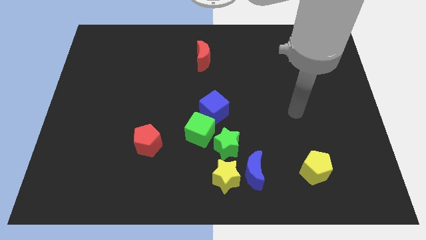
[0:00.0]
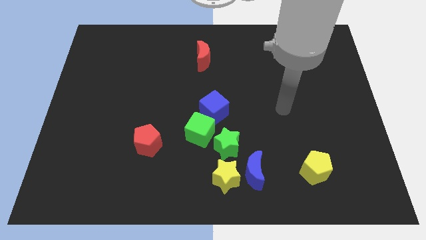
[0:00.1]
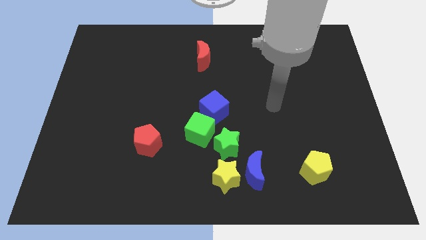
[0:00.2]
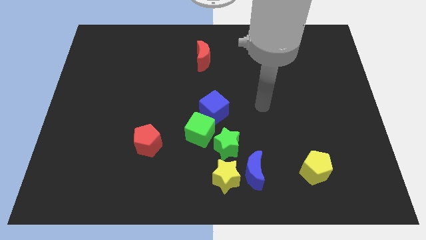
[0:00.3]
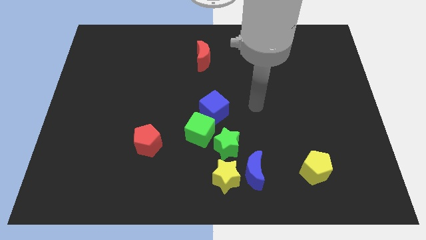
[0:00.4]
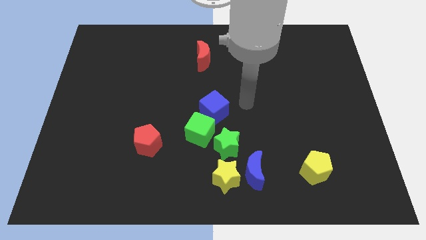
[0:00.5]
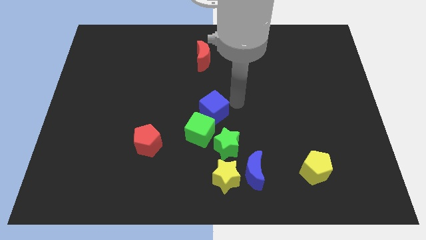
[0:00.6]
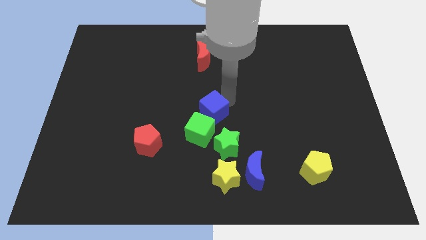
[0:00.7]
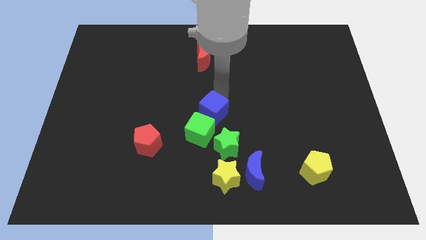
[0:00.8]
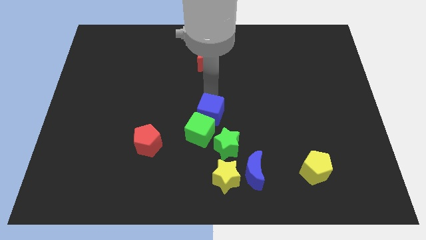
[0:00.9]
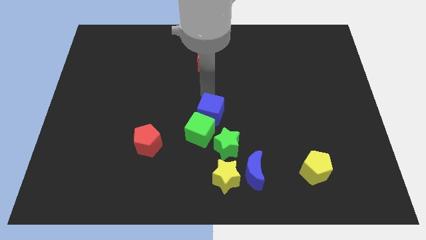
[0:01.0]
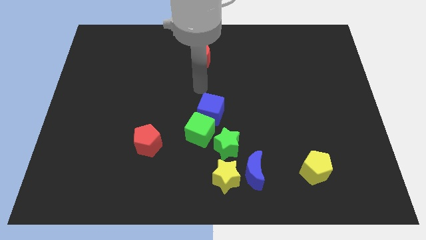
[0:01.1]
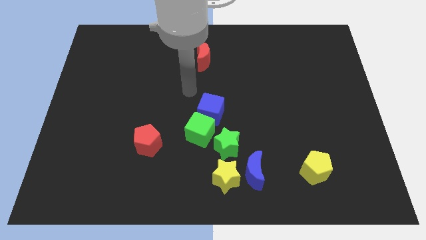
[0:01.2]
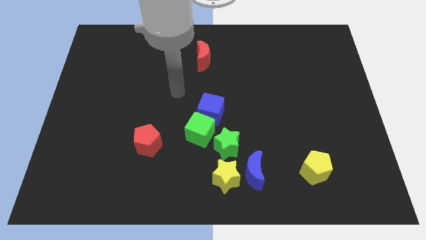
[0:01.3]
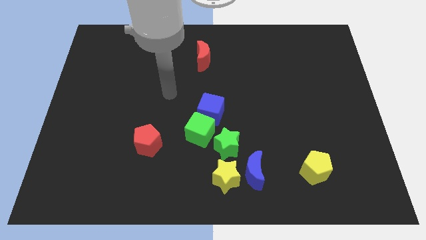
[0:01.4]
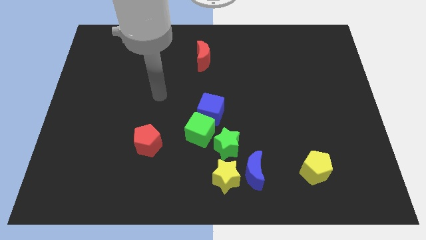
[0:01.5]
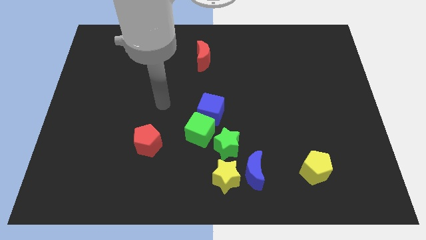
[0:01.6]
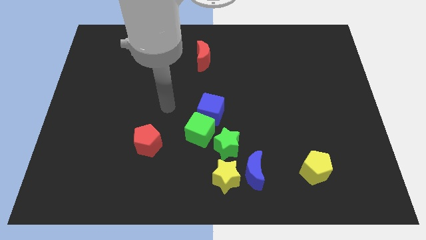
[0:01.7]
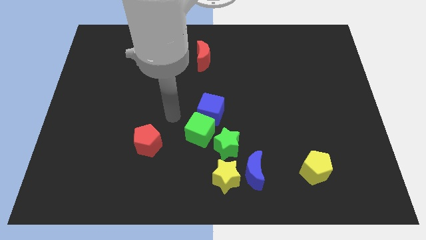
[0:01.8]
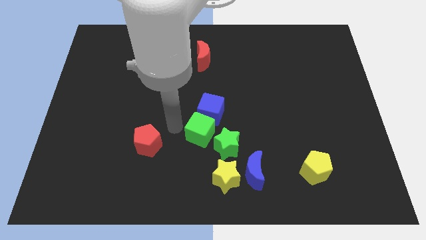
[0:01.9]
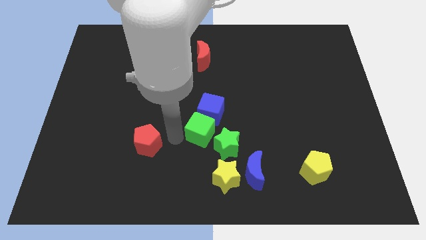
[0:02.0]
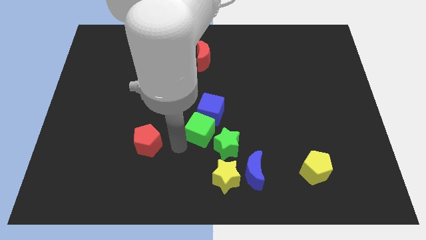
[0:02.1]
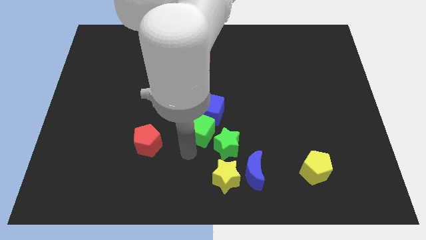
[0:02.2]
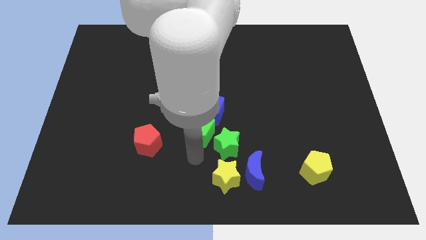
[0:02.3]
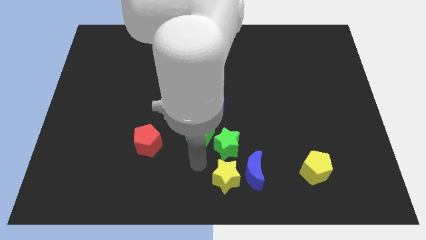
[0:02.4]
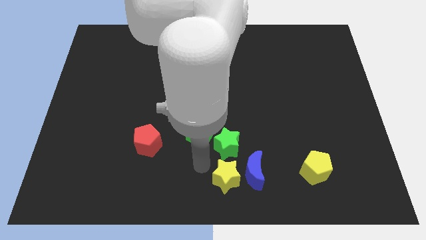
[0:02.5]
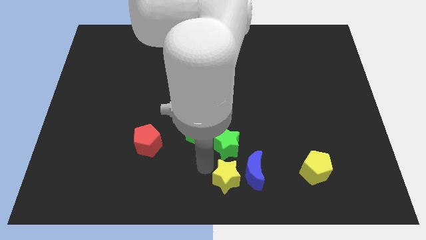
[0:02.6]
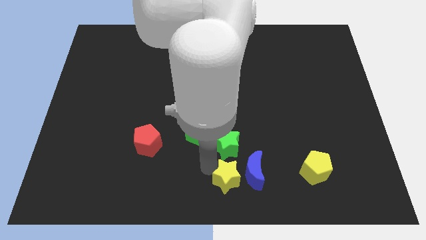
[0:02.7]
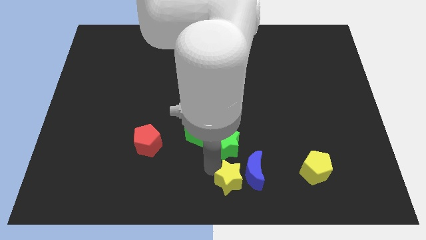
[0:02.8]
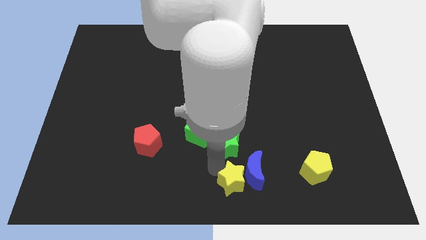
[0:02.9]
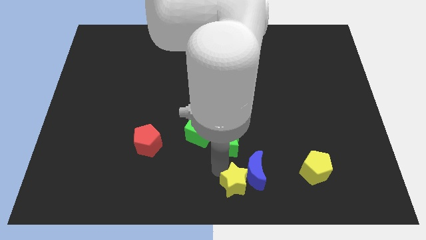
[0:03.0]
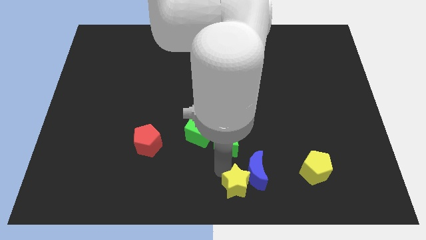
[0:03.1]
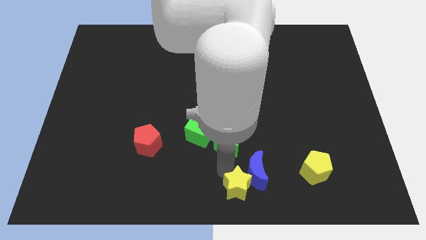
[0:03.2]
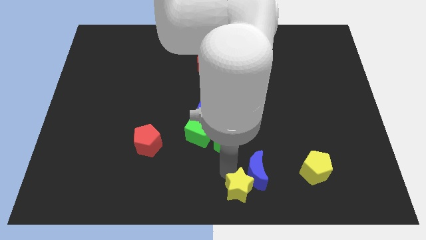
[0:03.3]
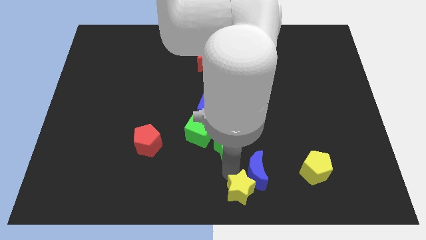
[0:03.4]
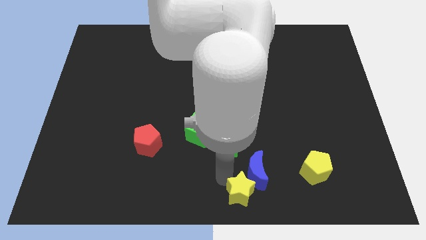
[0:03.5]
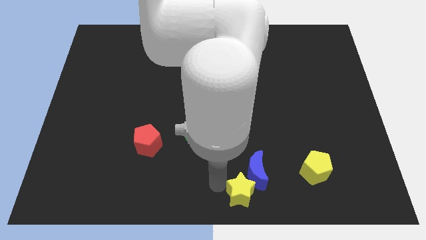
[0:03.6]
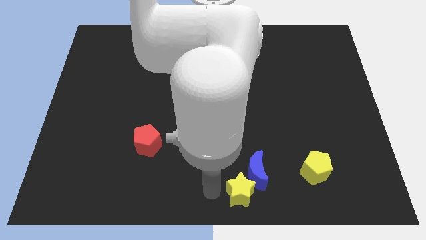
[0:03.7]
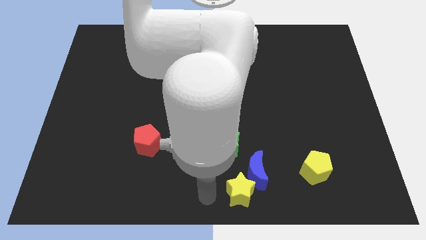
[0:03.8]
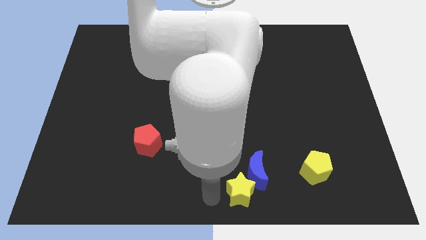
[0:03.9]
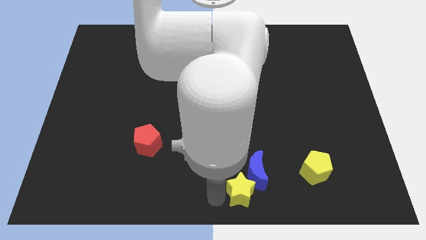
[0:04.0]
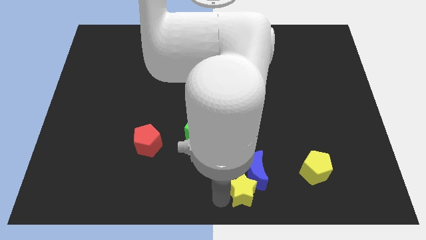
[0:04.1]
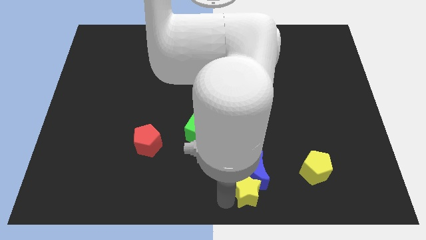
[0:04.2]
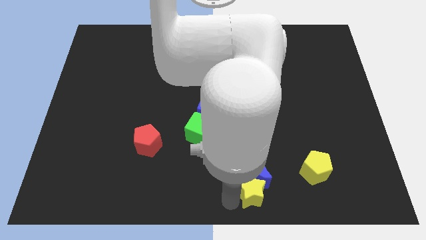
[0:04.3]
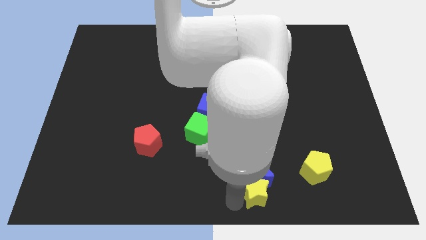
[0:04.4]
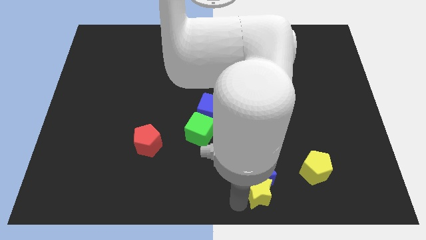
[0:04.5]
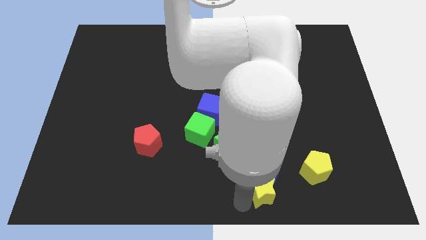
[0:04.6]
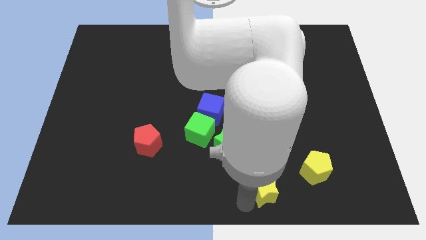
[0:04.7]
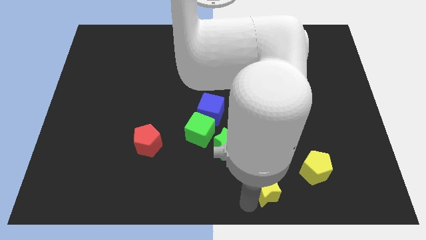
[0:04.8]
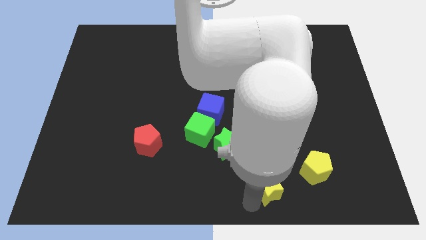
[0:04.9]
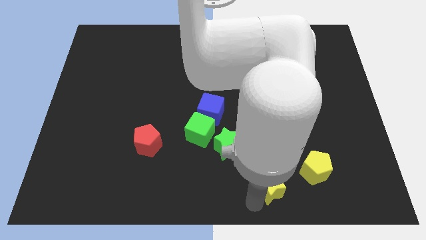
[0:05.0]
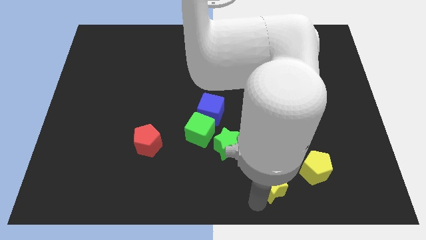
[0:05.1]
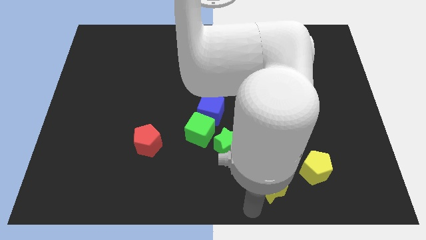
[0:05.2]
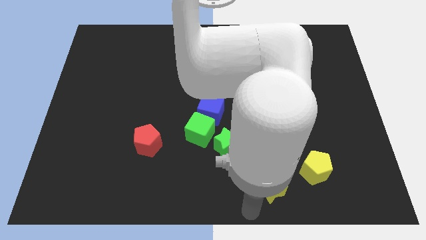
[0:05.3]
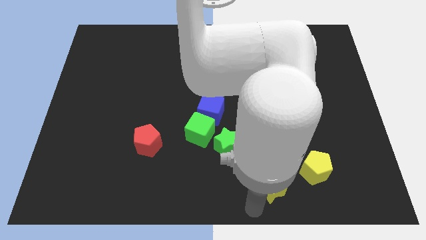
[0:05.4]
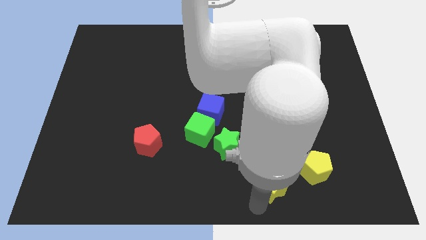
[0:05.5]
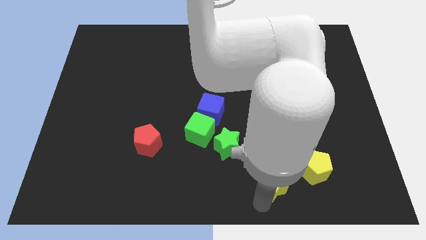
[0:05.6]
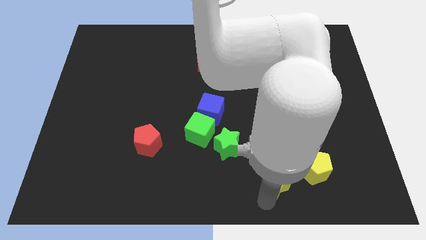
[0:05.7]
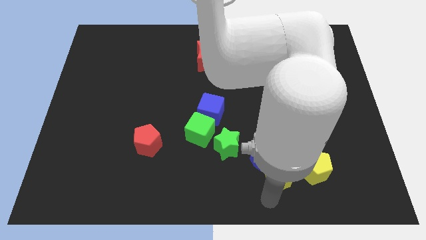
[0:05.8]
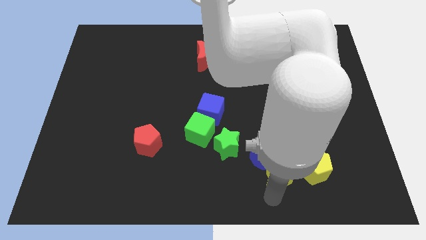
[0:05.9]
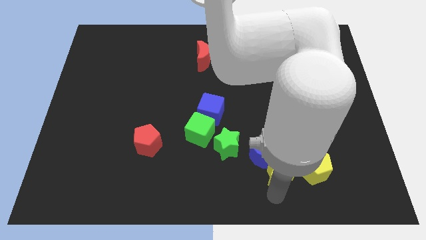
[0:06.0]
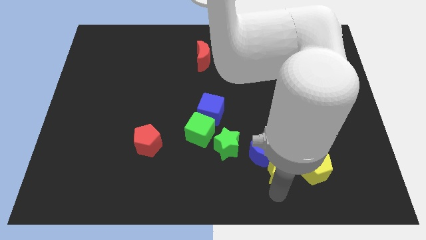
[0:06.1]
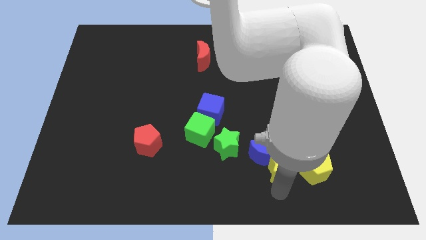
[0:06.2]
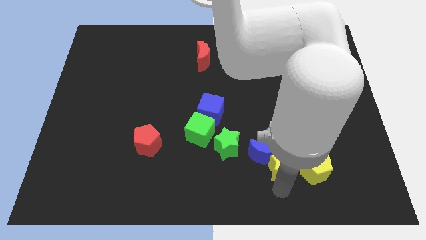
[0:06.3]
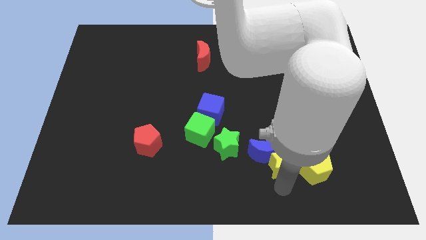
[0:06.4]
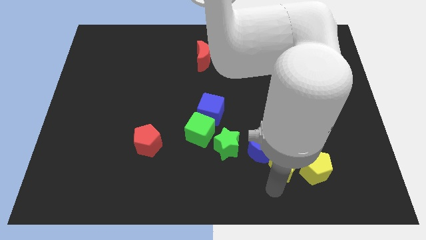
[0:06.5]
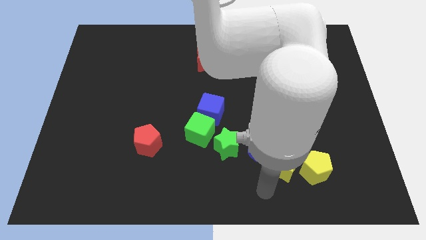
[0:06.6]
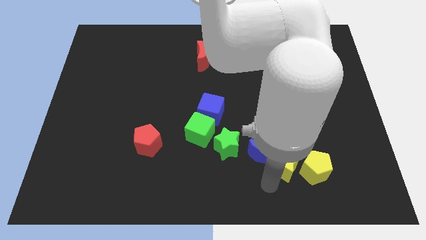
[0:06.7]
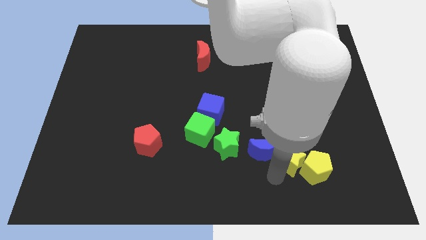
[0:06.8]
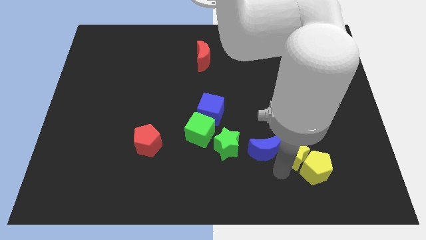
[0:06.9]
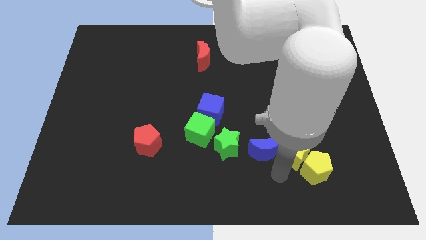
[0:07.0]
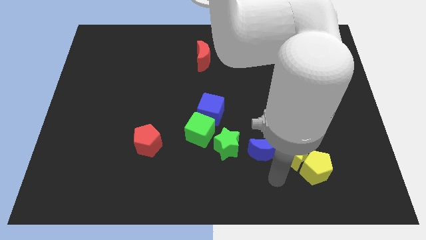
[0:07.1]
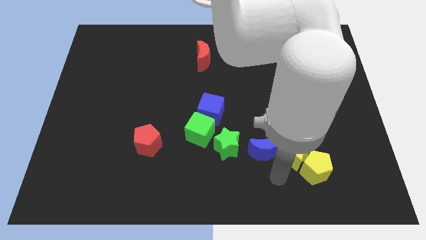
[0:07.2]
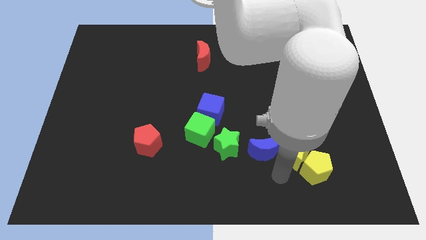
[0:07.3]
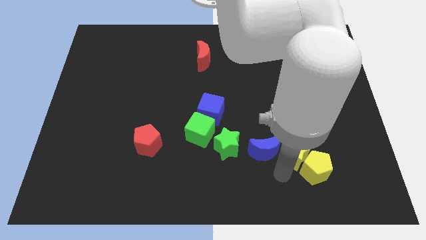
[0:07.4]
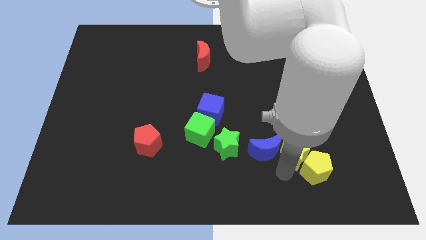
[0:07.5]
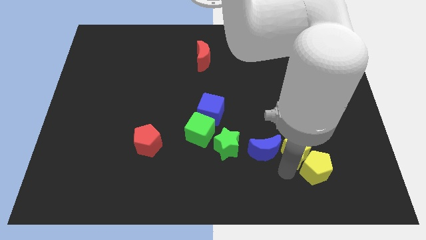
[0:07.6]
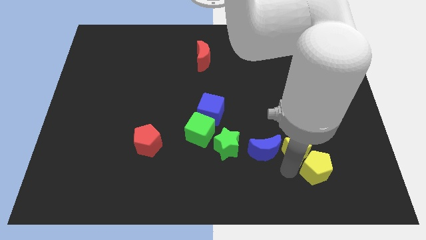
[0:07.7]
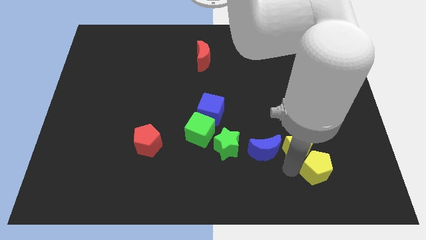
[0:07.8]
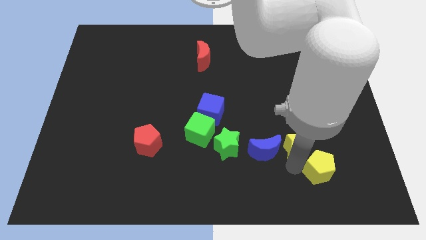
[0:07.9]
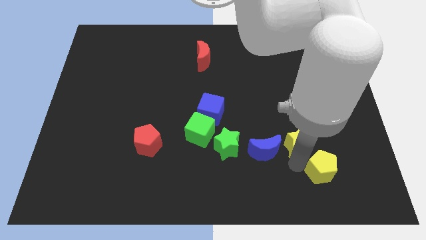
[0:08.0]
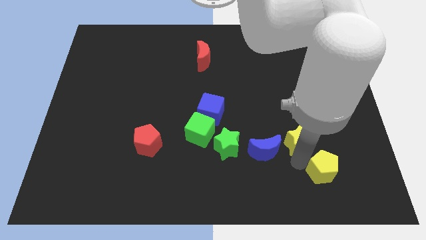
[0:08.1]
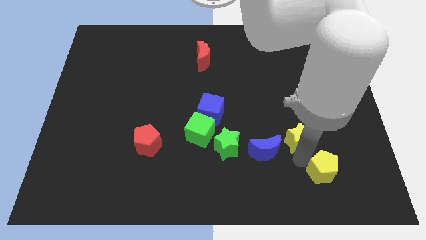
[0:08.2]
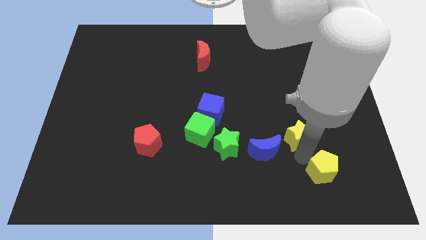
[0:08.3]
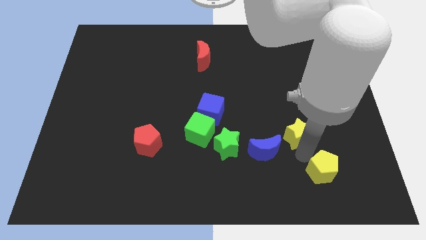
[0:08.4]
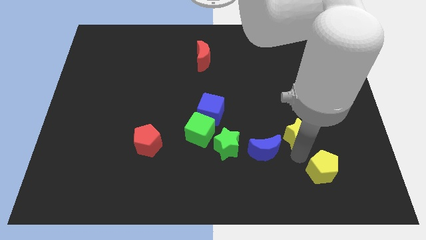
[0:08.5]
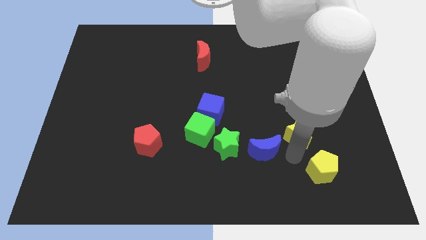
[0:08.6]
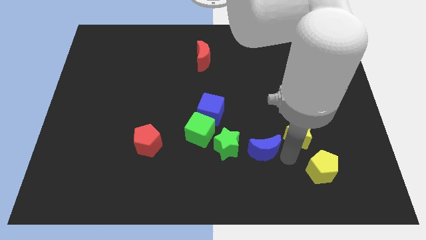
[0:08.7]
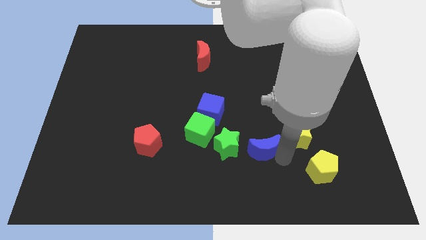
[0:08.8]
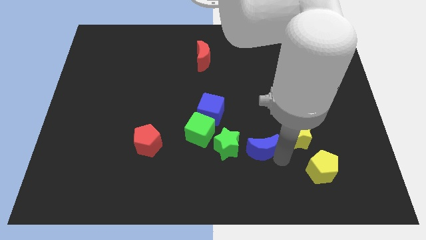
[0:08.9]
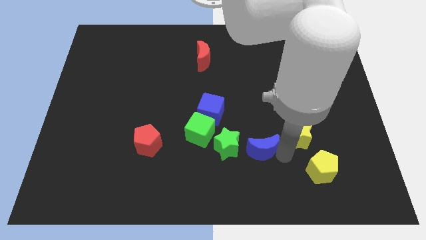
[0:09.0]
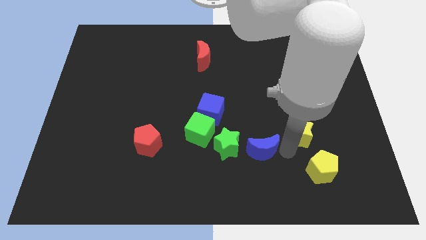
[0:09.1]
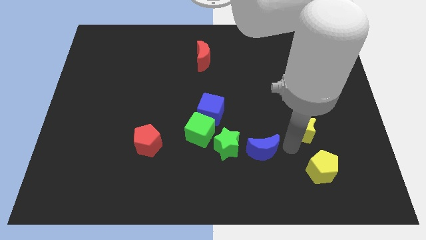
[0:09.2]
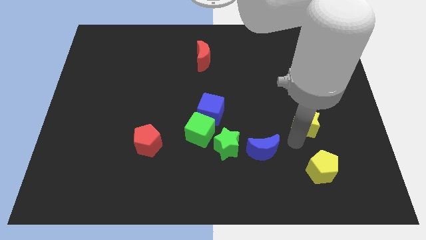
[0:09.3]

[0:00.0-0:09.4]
slide the yellow star up and then right
